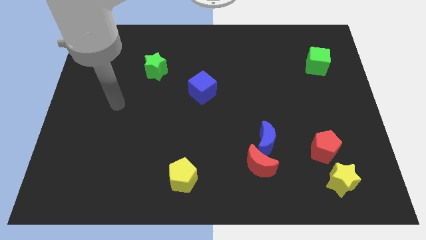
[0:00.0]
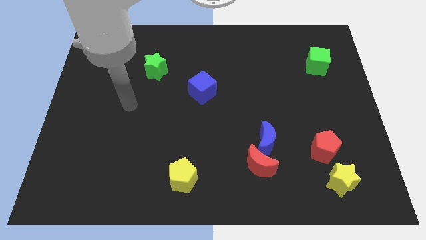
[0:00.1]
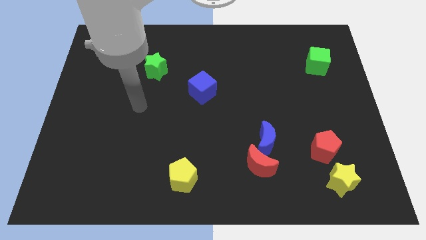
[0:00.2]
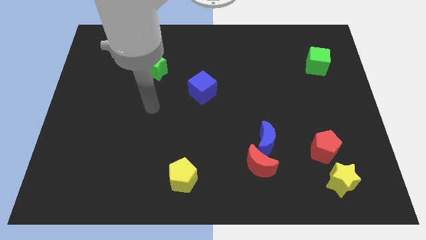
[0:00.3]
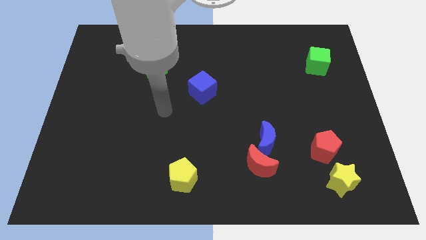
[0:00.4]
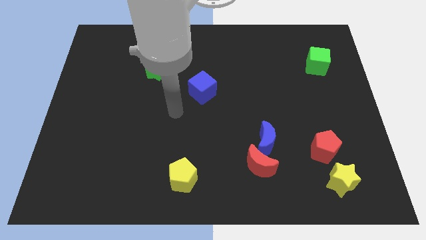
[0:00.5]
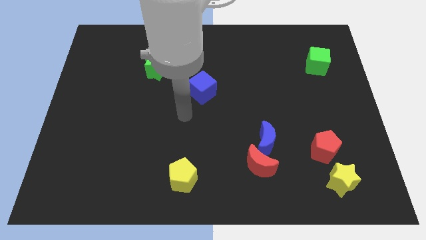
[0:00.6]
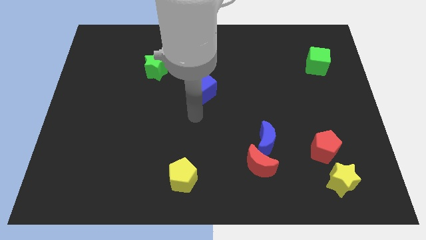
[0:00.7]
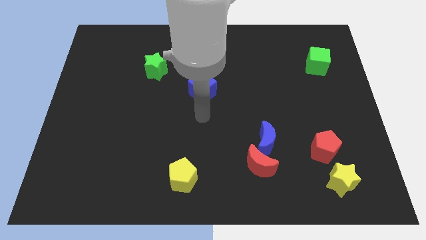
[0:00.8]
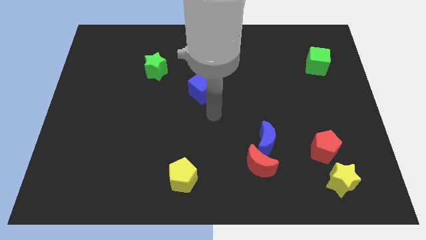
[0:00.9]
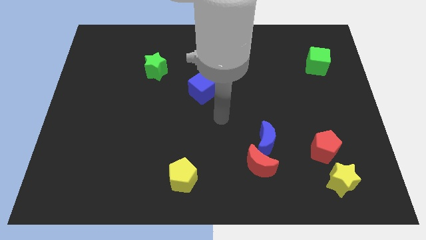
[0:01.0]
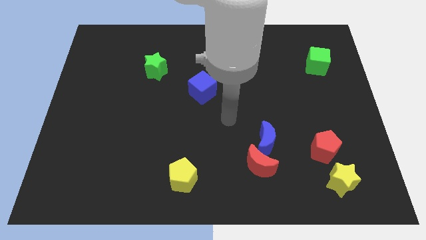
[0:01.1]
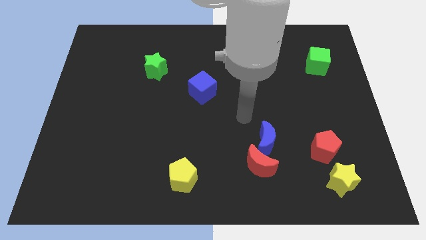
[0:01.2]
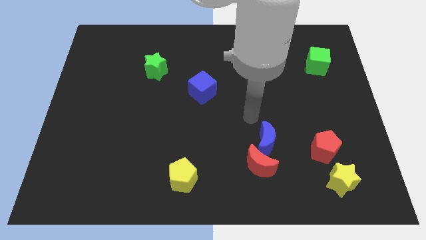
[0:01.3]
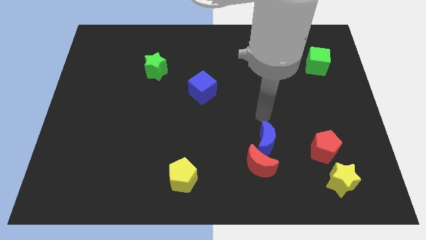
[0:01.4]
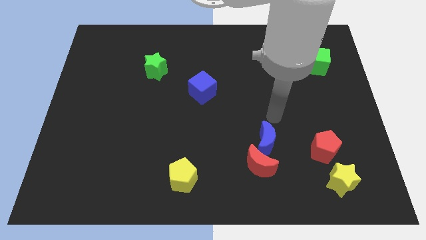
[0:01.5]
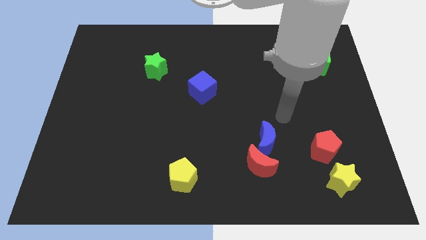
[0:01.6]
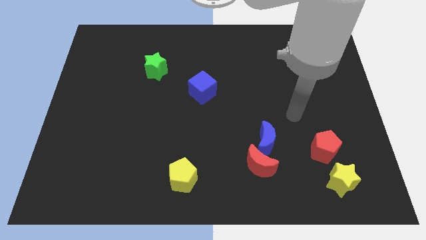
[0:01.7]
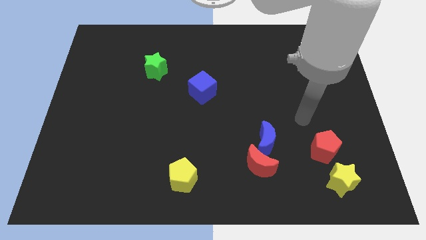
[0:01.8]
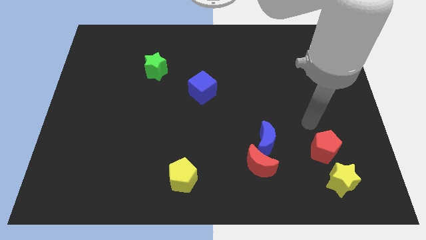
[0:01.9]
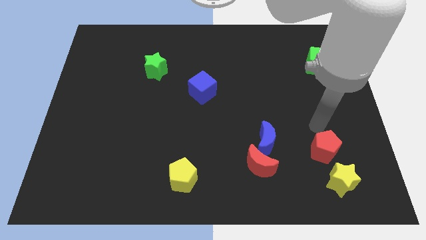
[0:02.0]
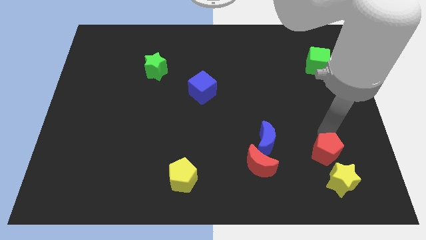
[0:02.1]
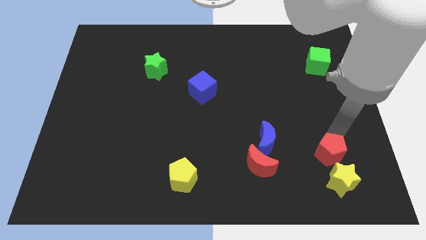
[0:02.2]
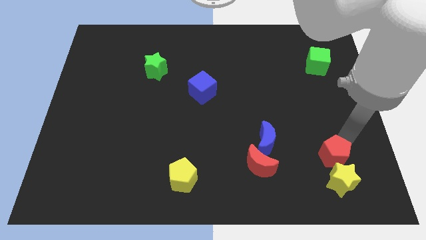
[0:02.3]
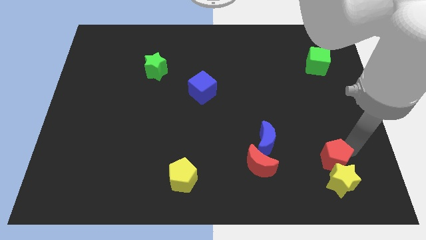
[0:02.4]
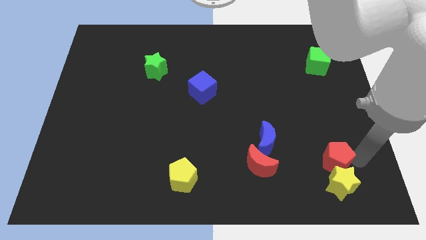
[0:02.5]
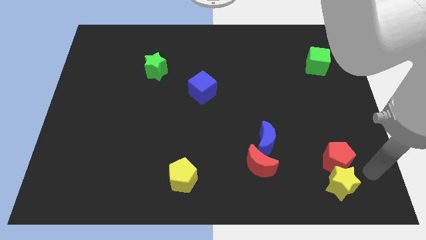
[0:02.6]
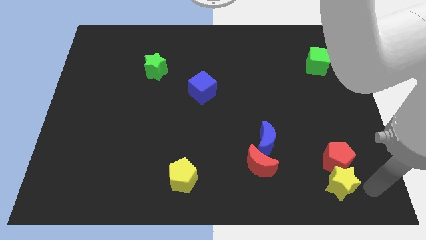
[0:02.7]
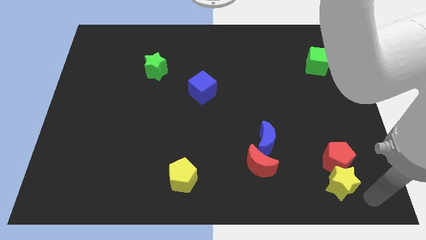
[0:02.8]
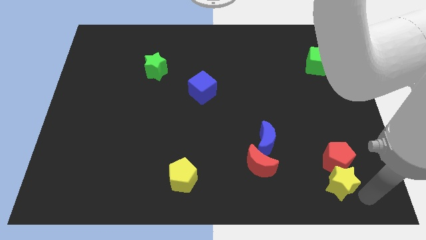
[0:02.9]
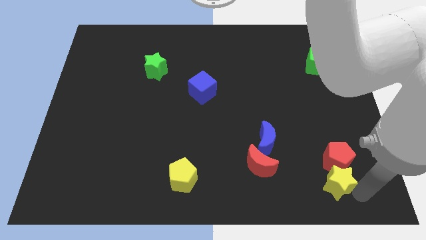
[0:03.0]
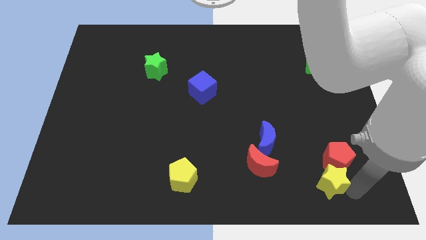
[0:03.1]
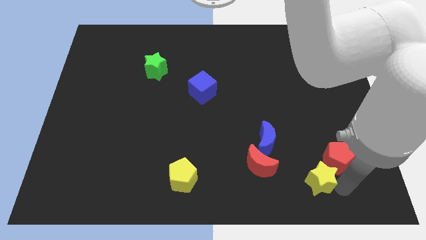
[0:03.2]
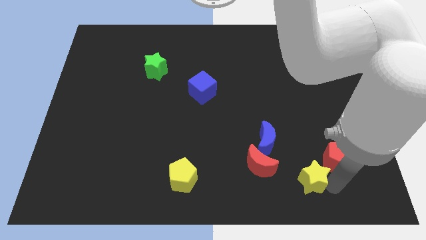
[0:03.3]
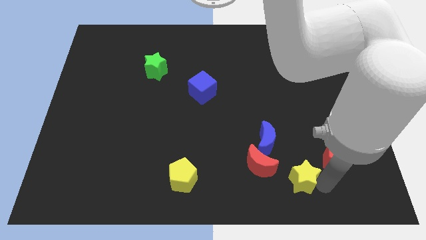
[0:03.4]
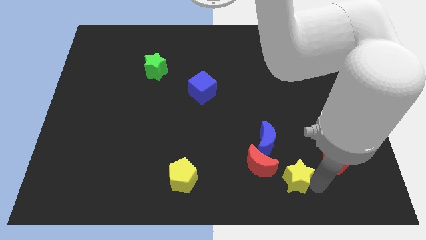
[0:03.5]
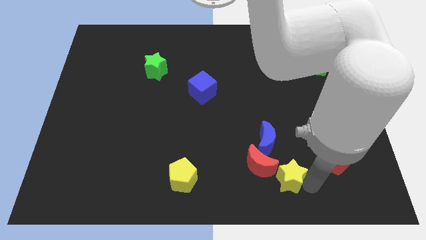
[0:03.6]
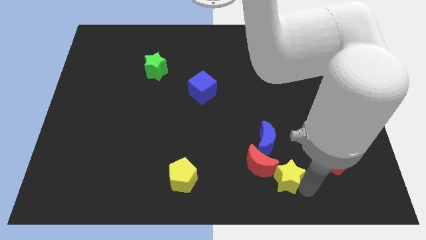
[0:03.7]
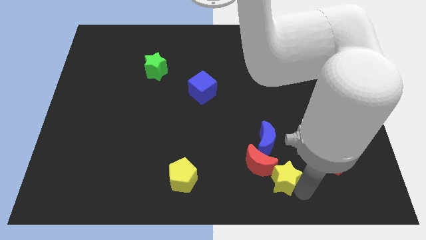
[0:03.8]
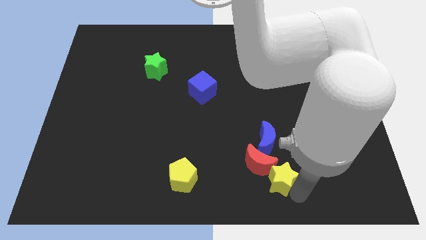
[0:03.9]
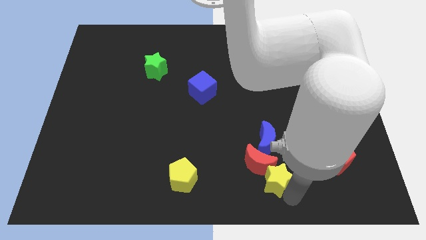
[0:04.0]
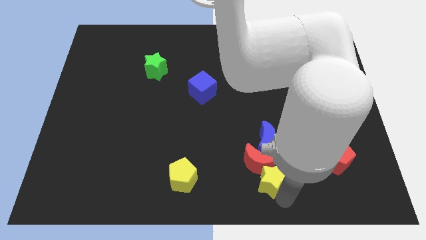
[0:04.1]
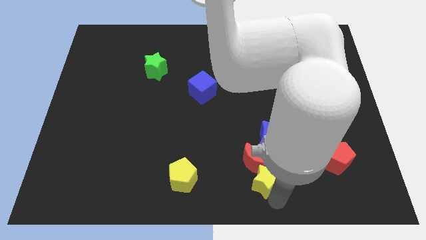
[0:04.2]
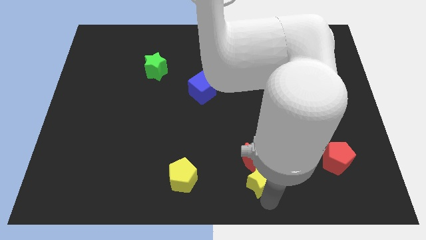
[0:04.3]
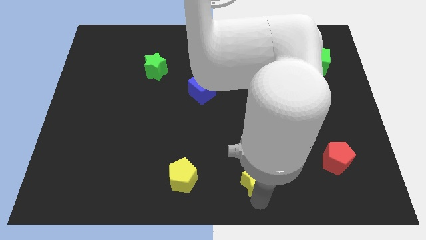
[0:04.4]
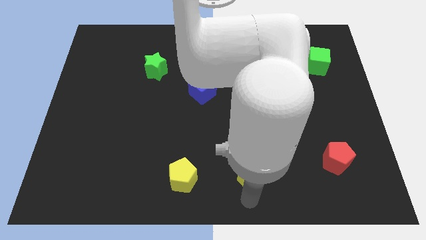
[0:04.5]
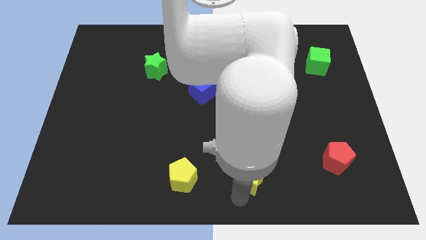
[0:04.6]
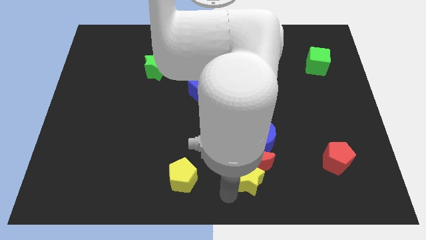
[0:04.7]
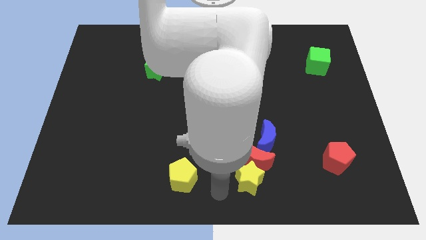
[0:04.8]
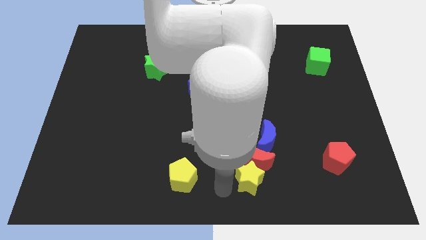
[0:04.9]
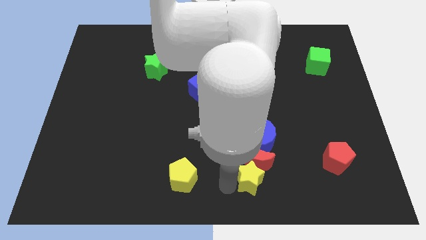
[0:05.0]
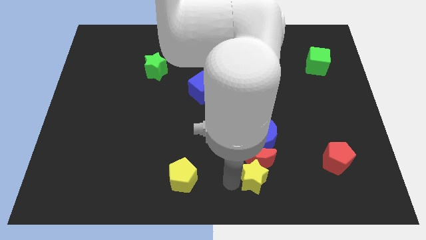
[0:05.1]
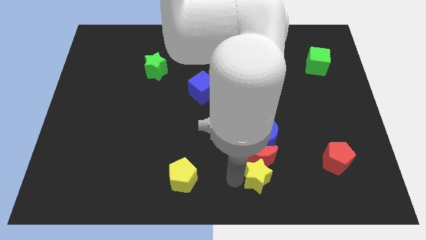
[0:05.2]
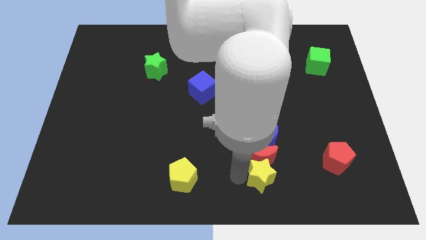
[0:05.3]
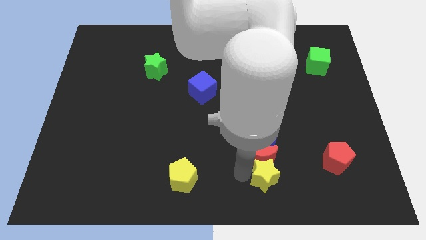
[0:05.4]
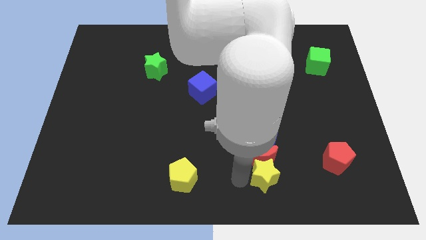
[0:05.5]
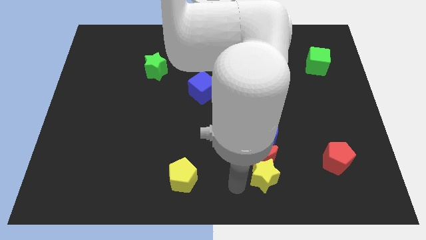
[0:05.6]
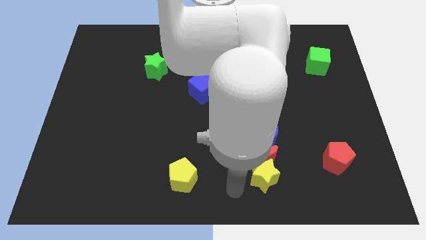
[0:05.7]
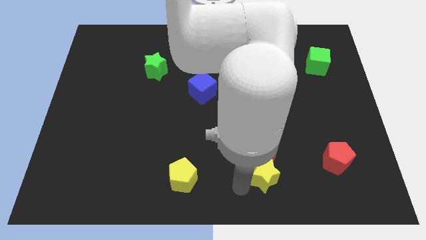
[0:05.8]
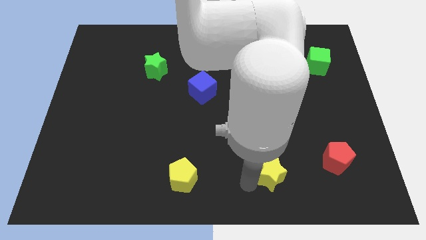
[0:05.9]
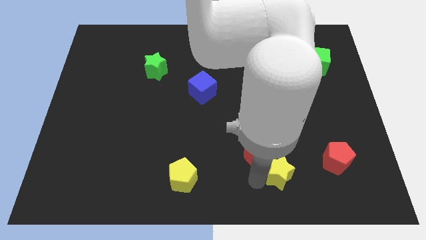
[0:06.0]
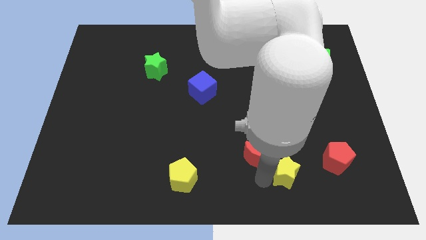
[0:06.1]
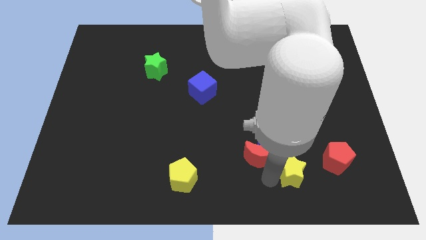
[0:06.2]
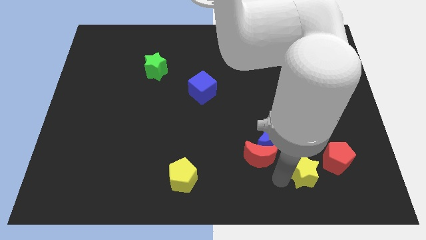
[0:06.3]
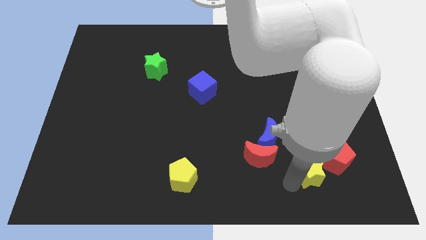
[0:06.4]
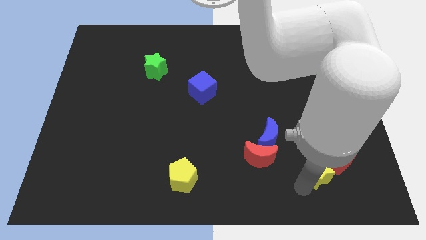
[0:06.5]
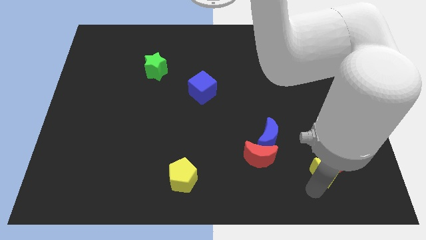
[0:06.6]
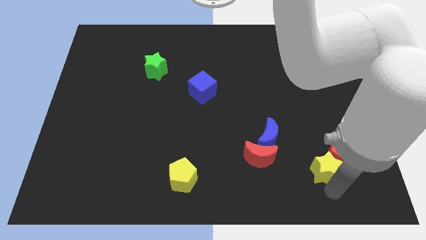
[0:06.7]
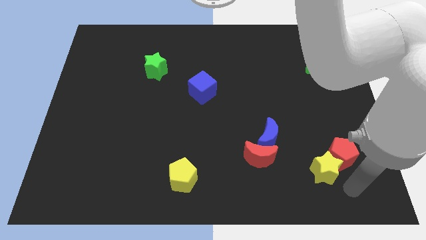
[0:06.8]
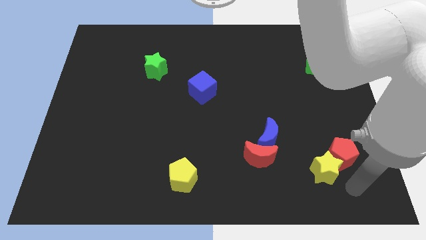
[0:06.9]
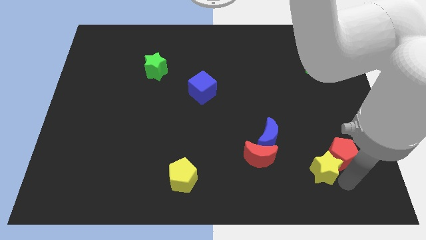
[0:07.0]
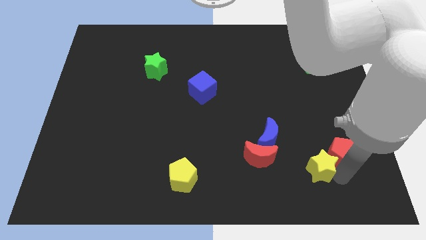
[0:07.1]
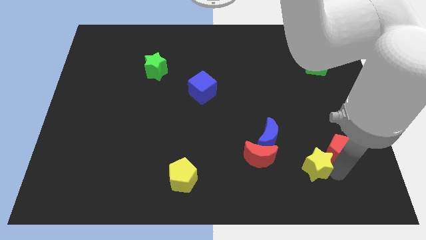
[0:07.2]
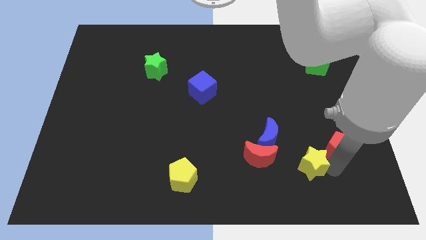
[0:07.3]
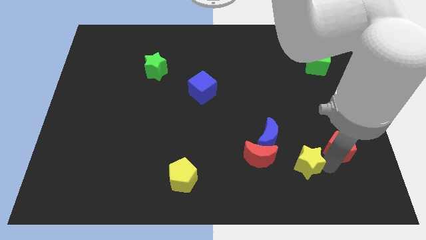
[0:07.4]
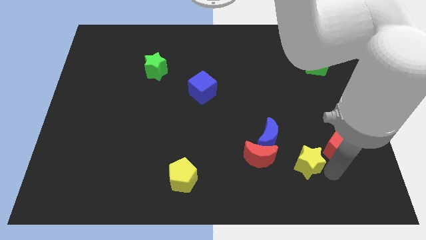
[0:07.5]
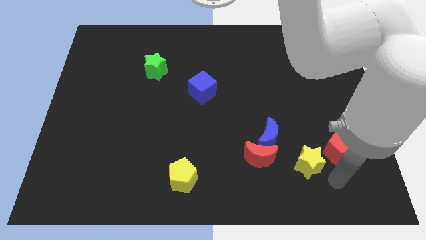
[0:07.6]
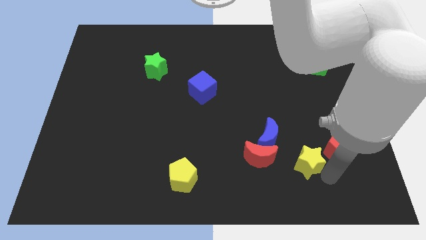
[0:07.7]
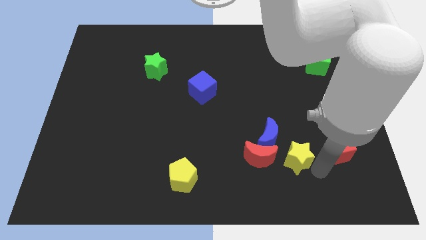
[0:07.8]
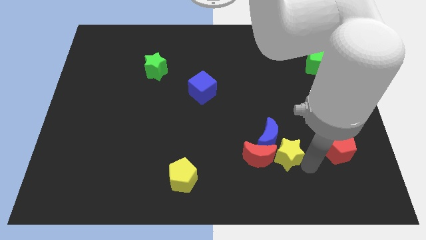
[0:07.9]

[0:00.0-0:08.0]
move the yellow star close to the blue moon
